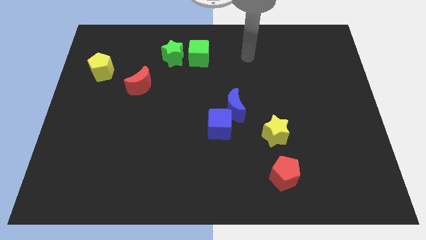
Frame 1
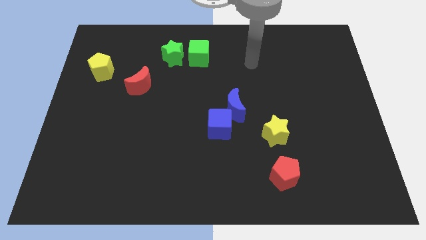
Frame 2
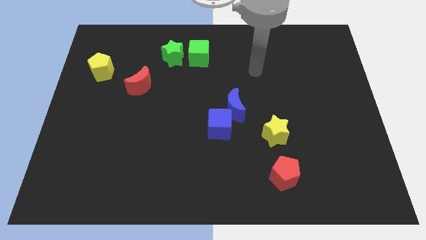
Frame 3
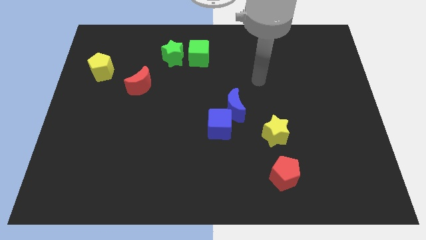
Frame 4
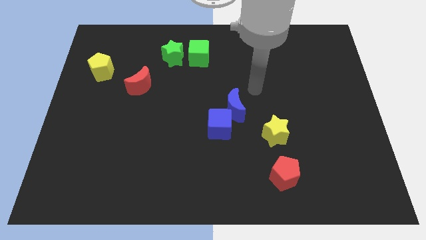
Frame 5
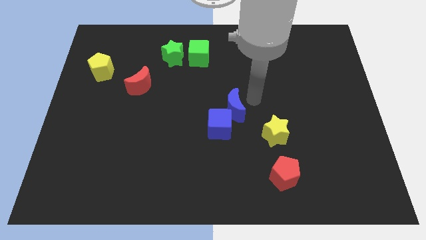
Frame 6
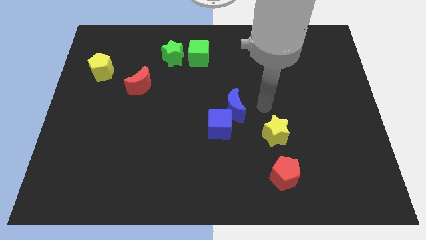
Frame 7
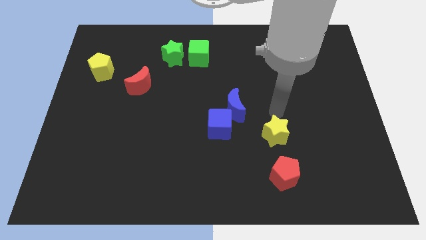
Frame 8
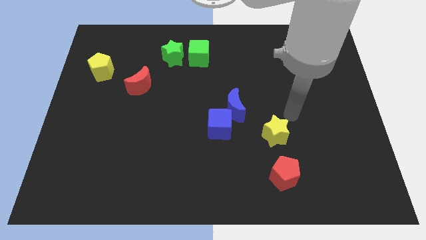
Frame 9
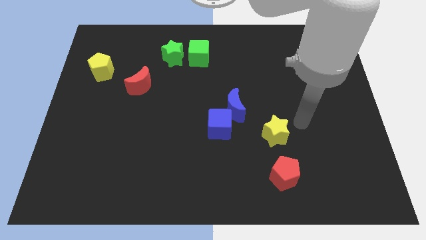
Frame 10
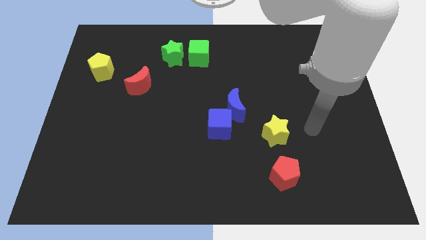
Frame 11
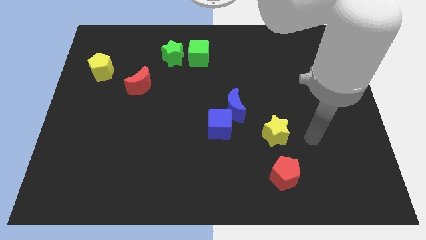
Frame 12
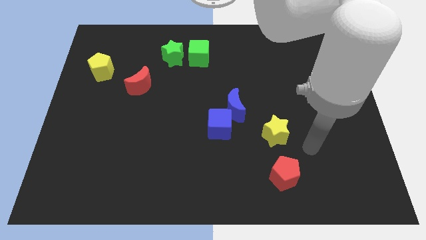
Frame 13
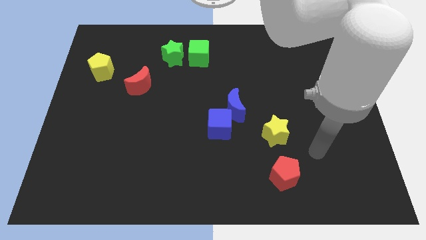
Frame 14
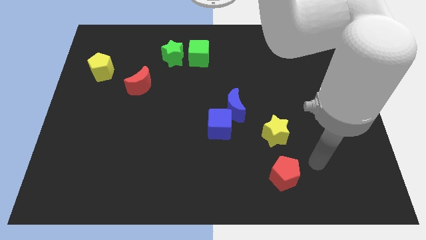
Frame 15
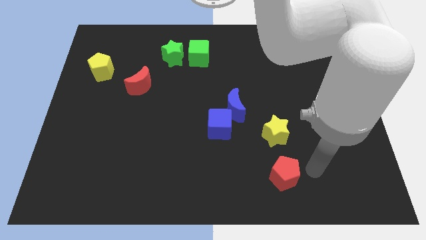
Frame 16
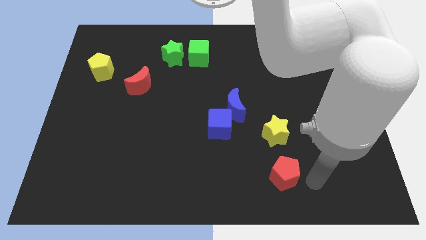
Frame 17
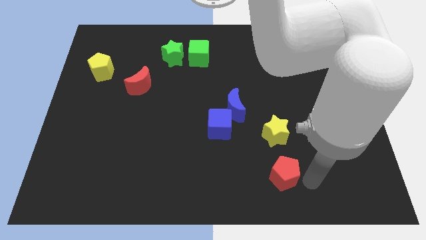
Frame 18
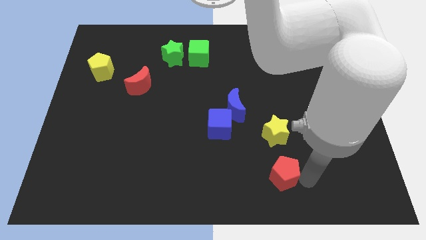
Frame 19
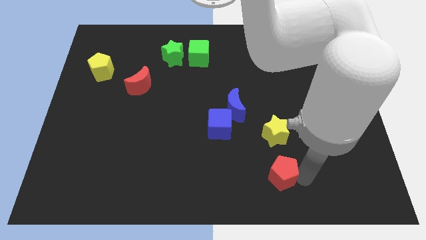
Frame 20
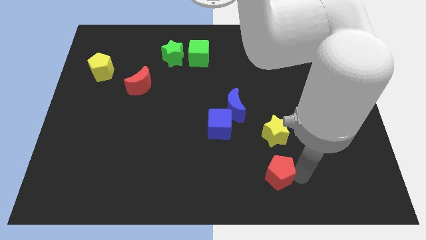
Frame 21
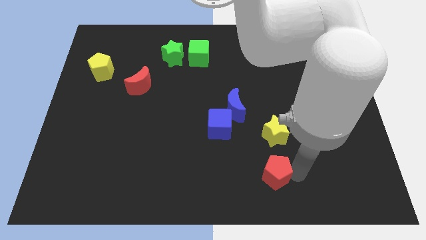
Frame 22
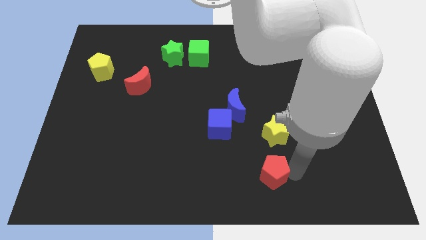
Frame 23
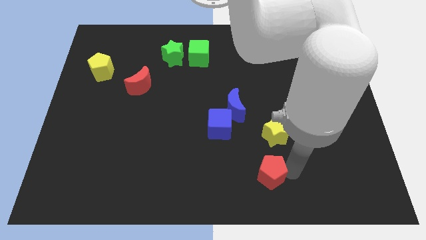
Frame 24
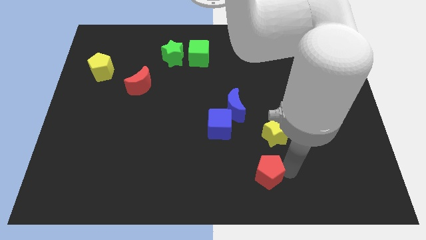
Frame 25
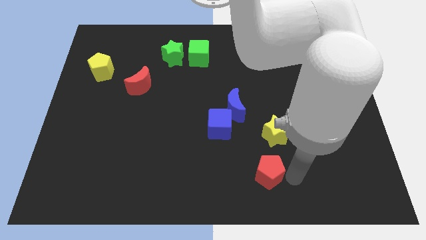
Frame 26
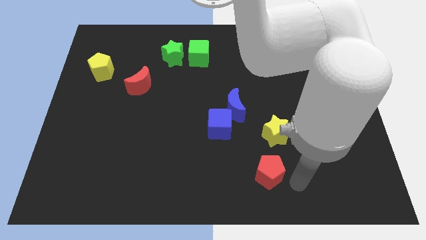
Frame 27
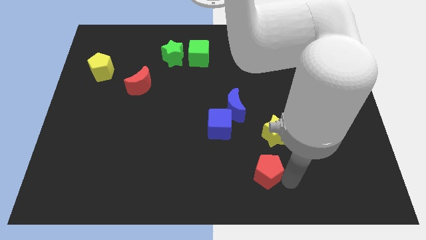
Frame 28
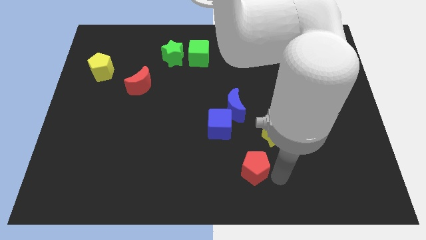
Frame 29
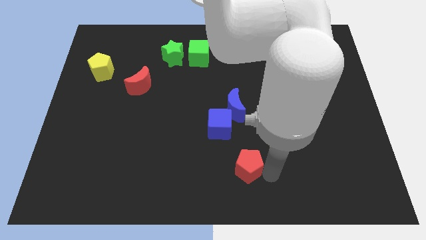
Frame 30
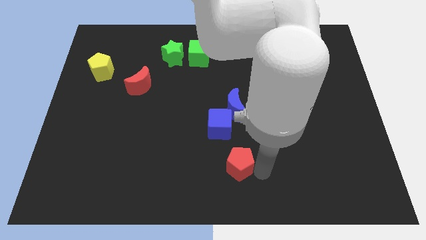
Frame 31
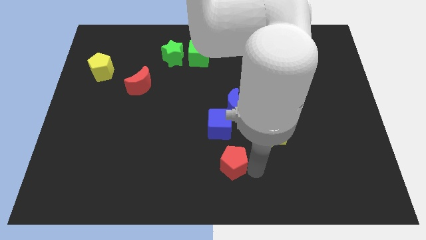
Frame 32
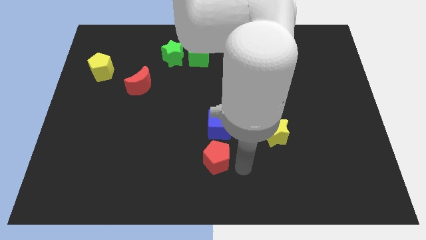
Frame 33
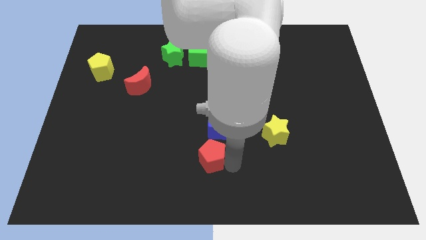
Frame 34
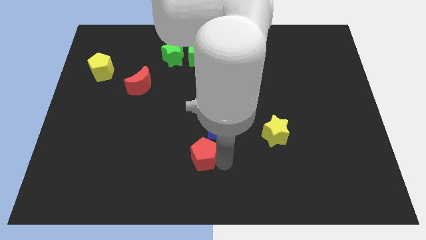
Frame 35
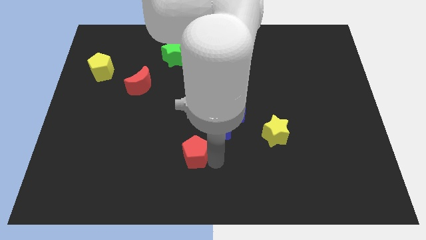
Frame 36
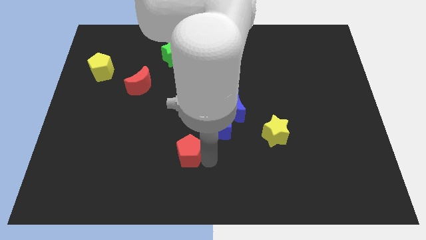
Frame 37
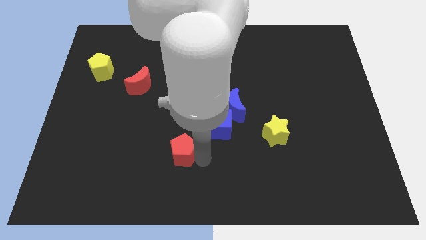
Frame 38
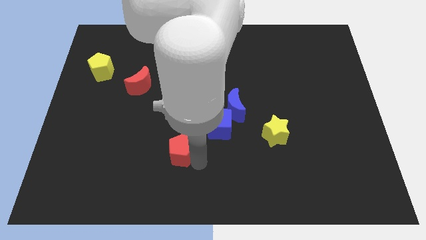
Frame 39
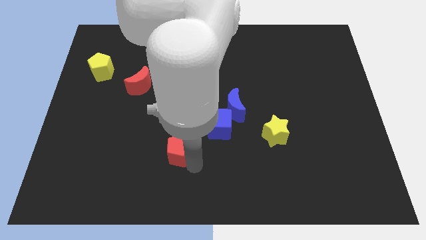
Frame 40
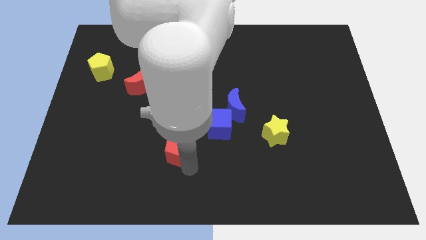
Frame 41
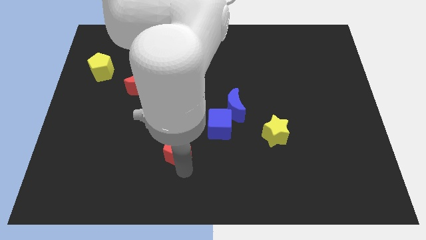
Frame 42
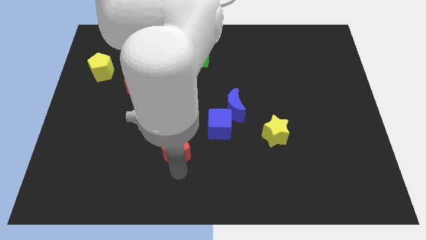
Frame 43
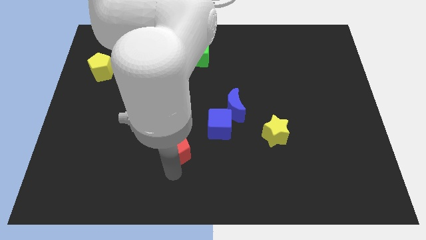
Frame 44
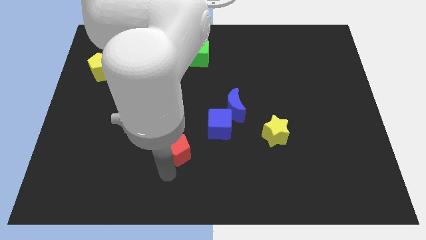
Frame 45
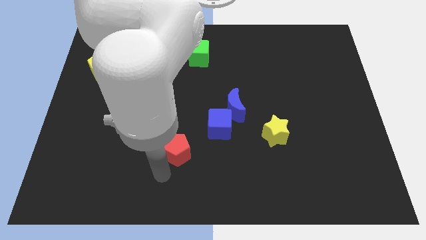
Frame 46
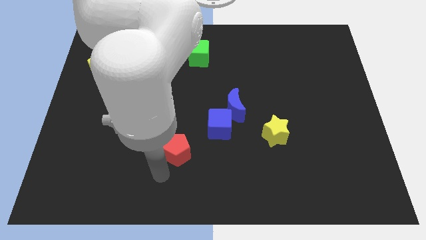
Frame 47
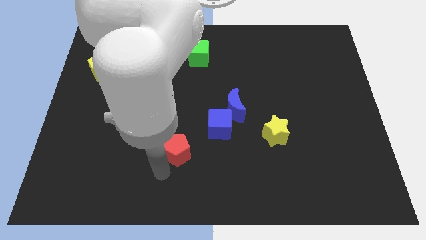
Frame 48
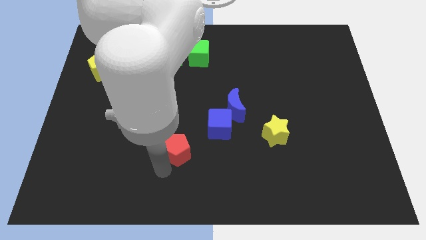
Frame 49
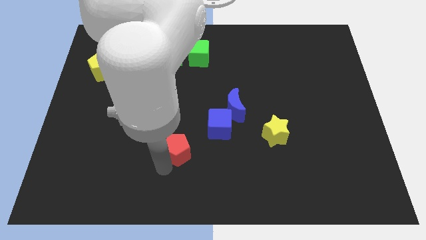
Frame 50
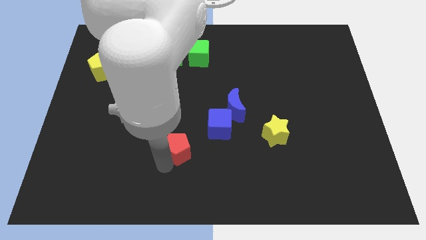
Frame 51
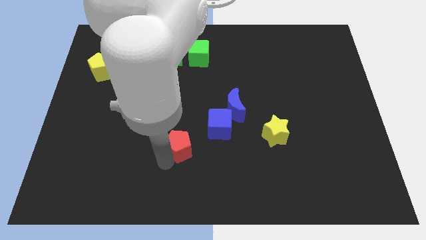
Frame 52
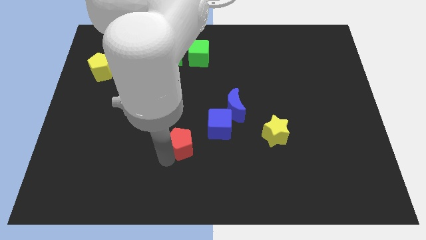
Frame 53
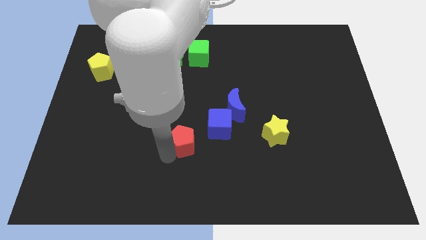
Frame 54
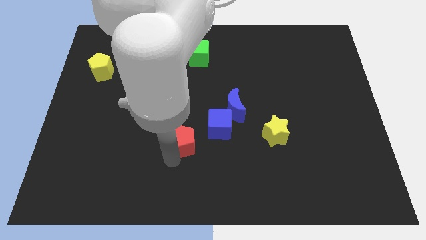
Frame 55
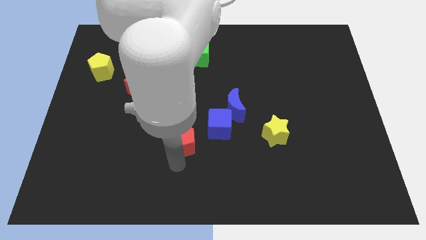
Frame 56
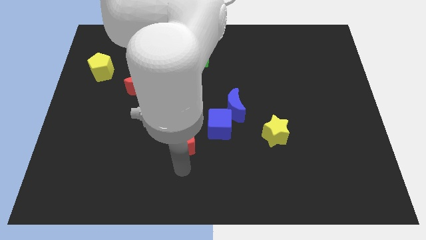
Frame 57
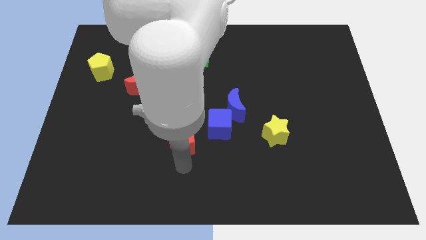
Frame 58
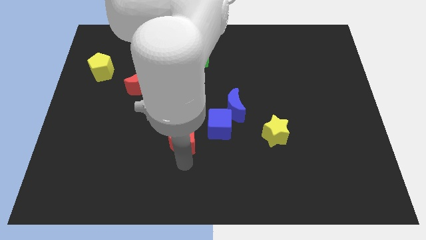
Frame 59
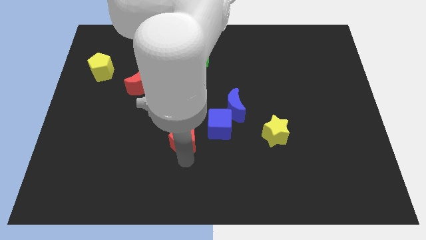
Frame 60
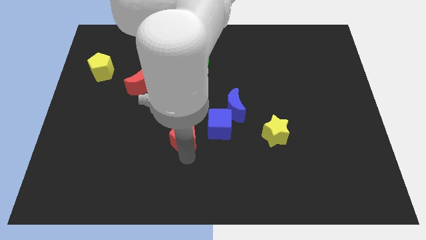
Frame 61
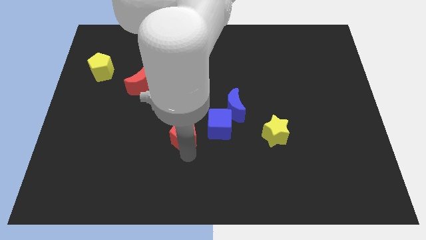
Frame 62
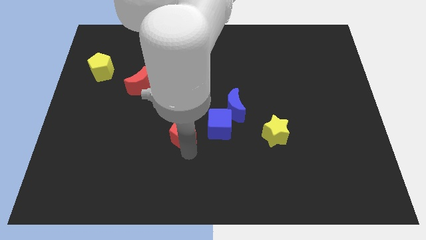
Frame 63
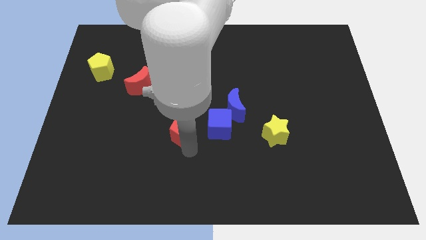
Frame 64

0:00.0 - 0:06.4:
push the red pentagon upwards and then left

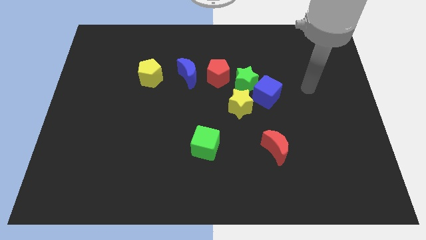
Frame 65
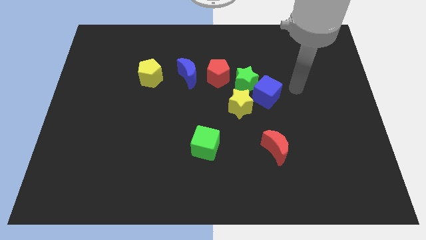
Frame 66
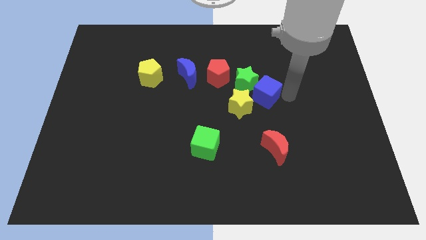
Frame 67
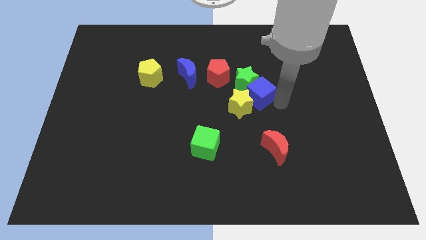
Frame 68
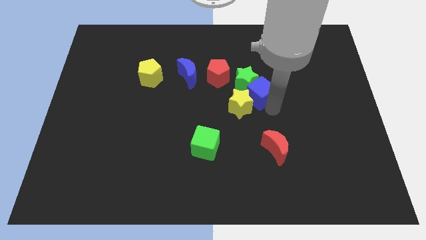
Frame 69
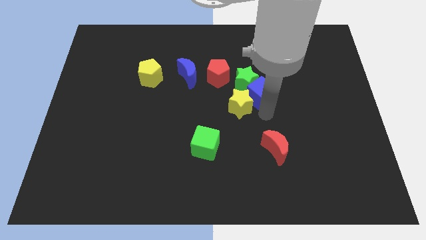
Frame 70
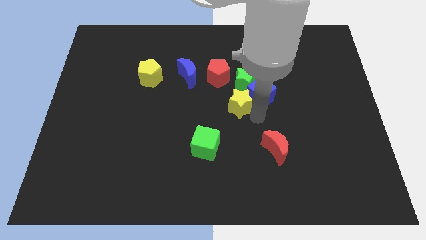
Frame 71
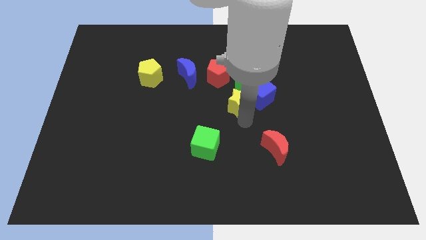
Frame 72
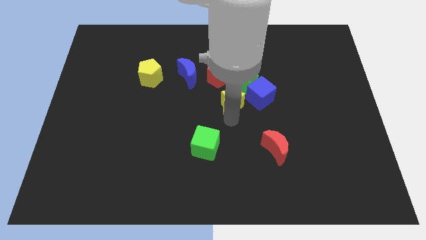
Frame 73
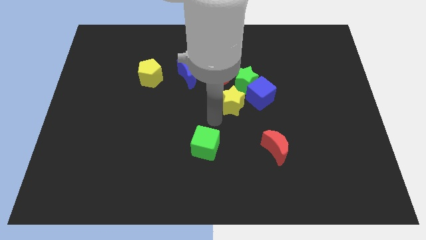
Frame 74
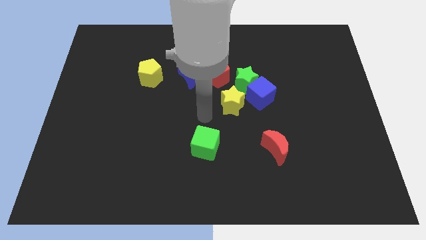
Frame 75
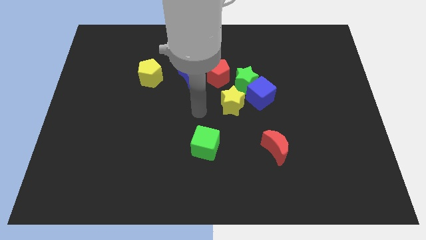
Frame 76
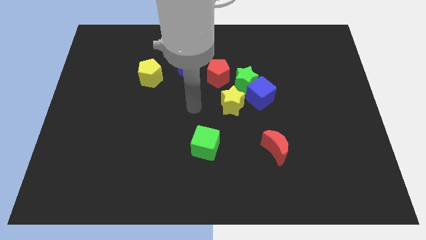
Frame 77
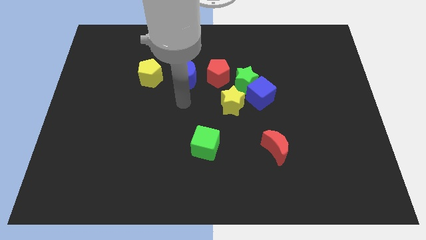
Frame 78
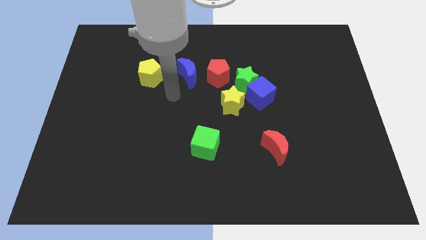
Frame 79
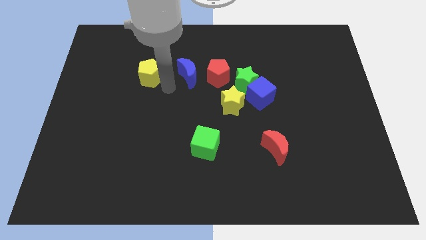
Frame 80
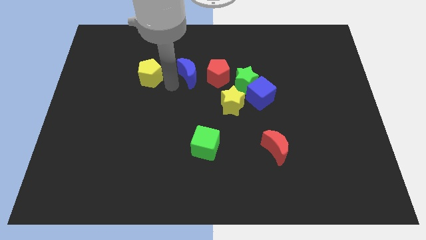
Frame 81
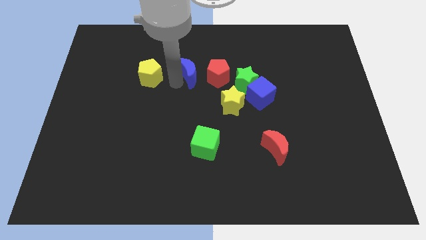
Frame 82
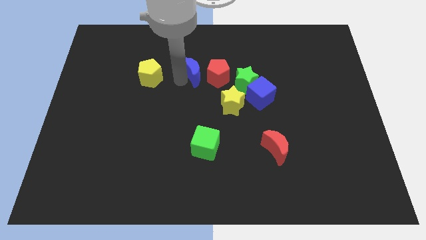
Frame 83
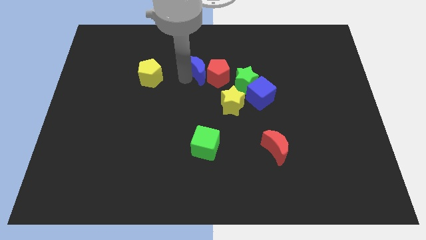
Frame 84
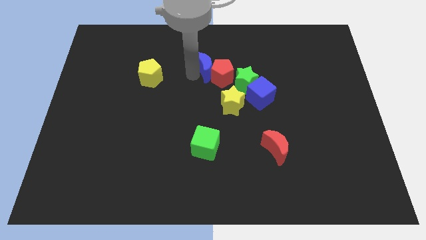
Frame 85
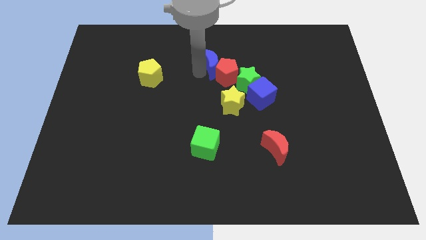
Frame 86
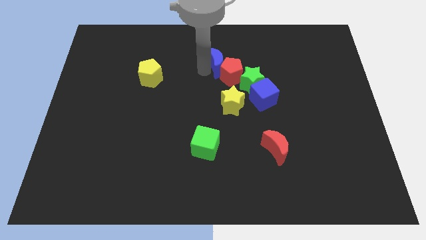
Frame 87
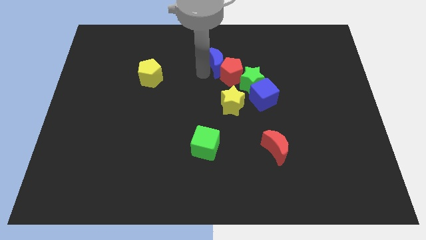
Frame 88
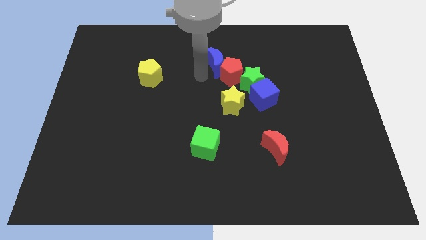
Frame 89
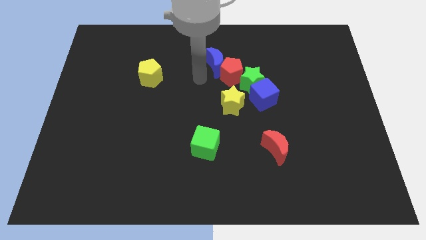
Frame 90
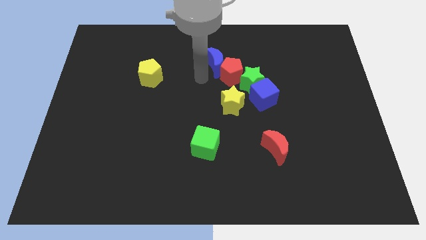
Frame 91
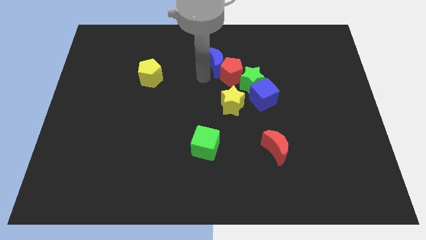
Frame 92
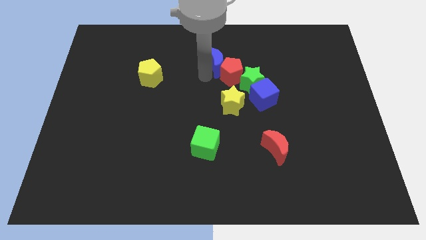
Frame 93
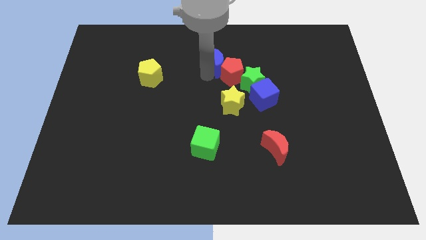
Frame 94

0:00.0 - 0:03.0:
move the blue moon right a little
